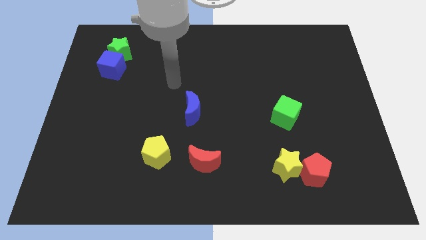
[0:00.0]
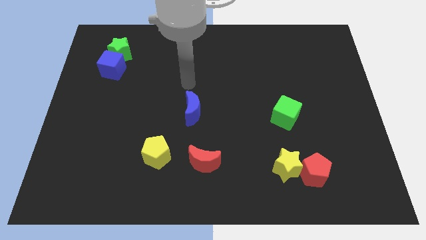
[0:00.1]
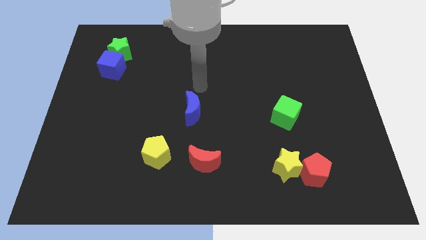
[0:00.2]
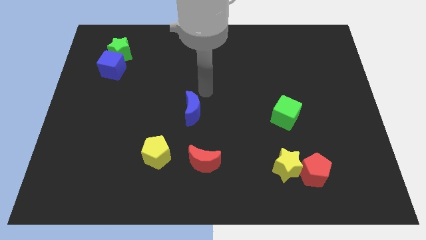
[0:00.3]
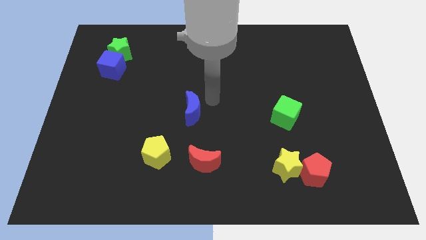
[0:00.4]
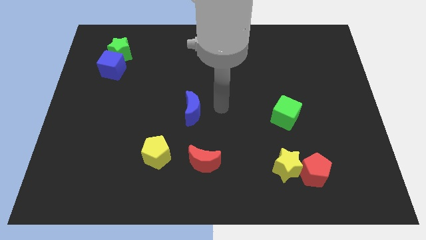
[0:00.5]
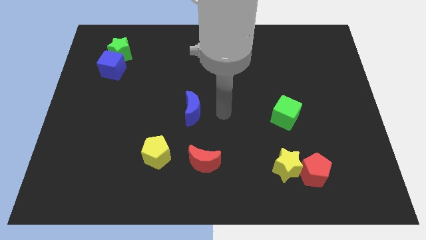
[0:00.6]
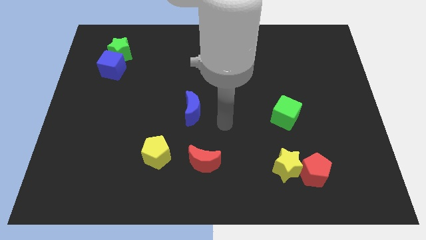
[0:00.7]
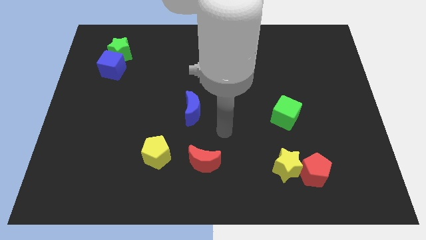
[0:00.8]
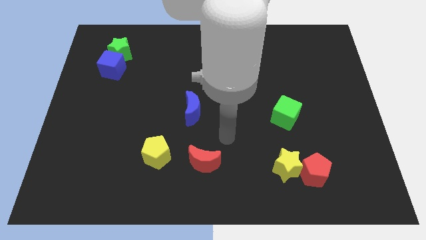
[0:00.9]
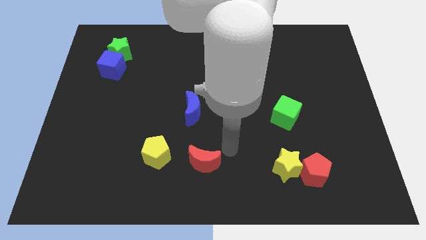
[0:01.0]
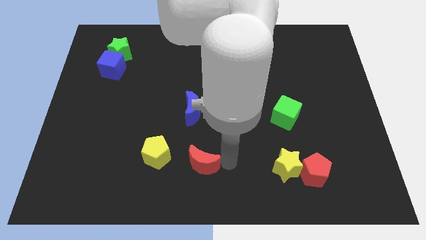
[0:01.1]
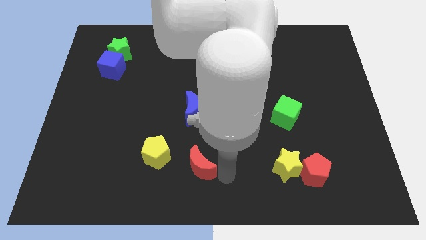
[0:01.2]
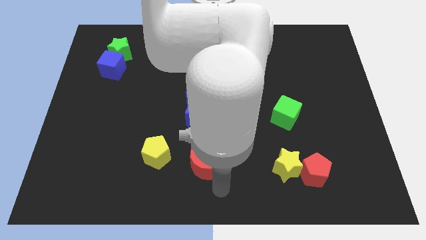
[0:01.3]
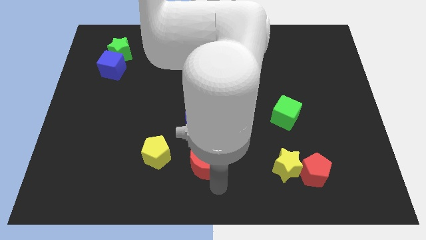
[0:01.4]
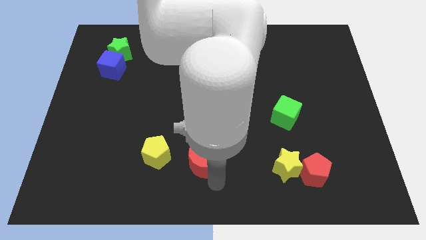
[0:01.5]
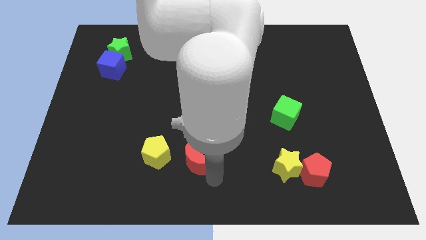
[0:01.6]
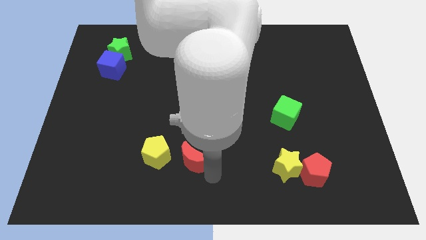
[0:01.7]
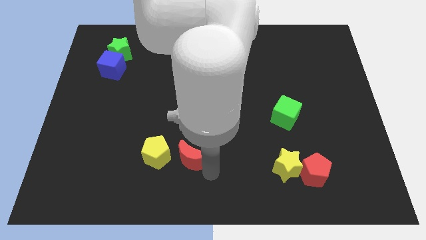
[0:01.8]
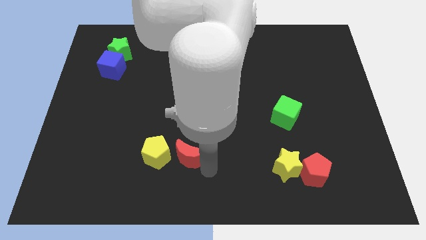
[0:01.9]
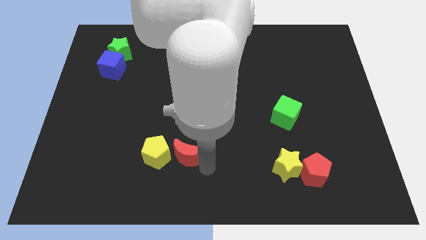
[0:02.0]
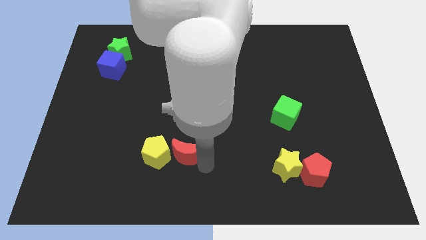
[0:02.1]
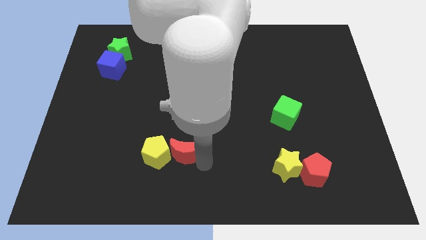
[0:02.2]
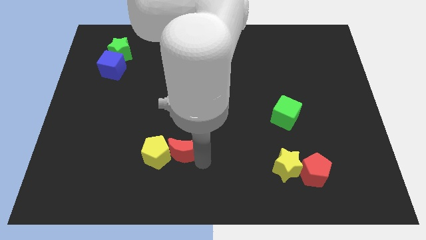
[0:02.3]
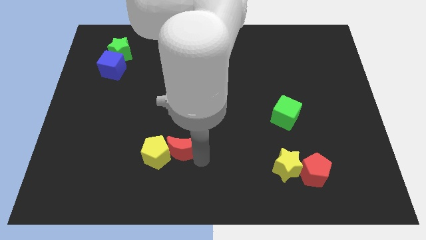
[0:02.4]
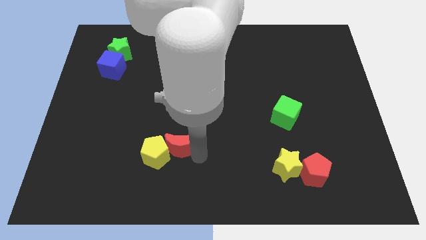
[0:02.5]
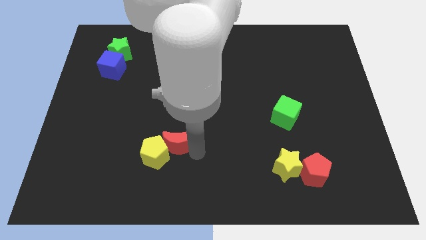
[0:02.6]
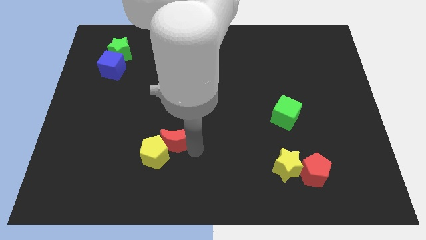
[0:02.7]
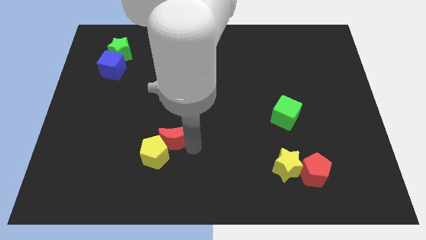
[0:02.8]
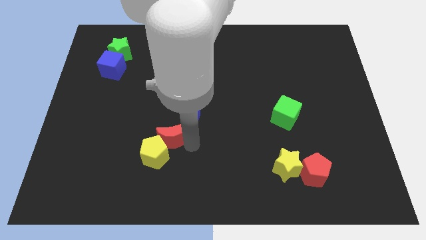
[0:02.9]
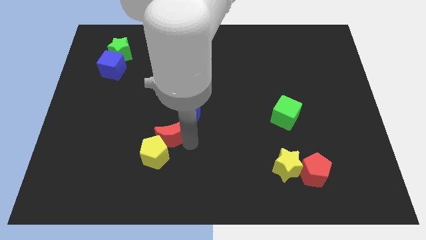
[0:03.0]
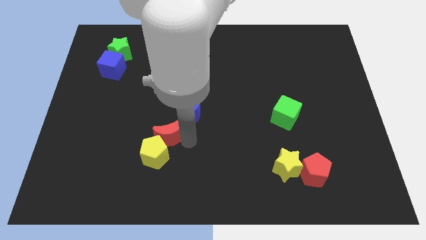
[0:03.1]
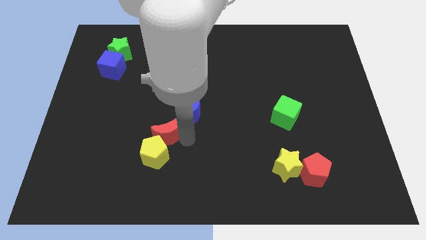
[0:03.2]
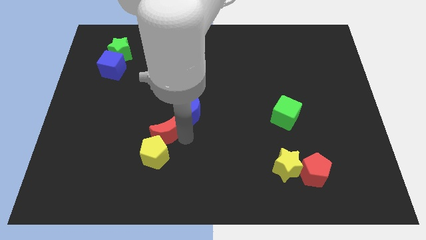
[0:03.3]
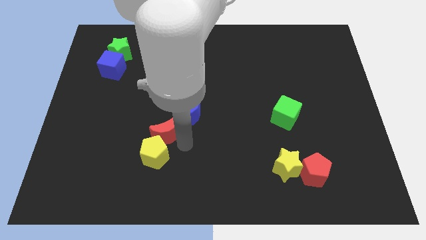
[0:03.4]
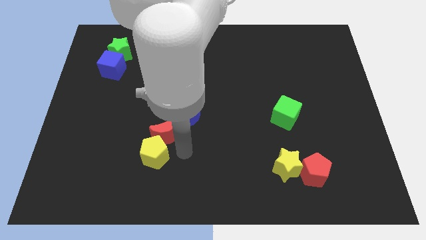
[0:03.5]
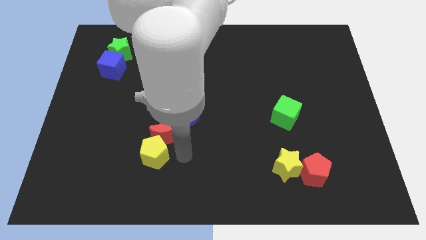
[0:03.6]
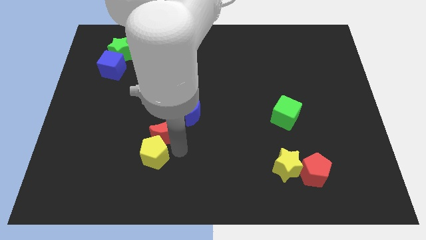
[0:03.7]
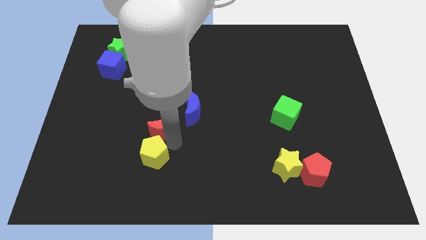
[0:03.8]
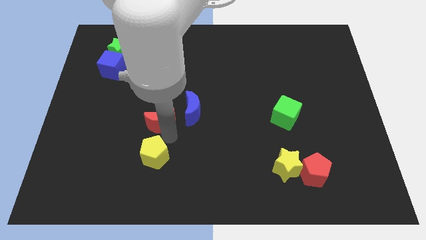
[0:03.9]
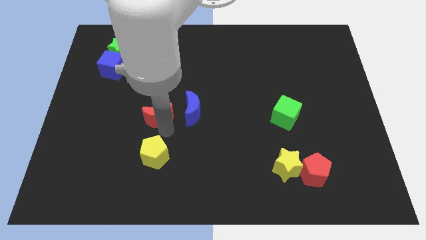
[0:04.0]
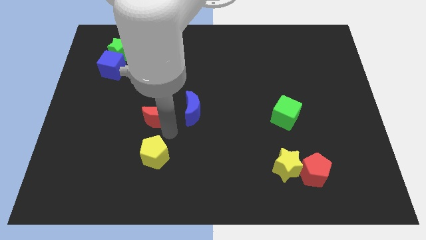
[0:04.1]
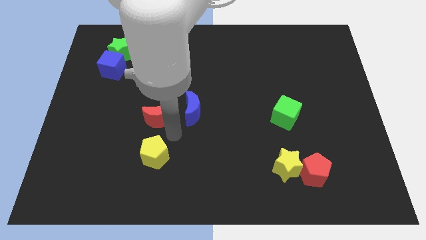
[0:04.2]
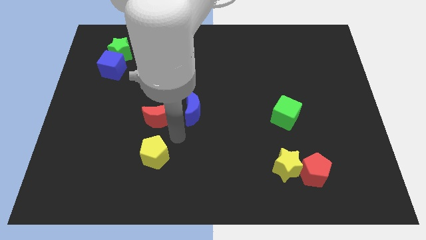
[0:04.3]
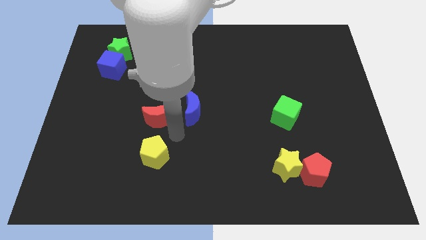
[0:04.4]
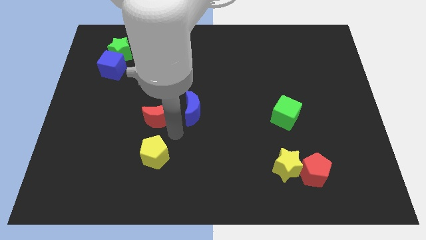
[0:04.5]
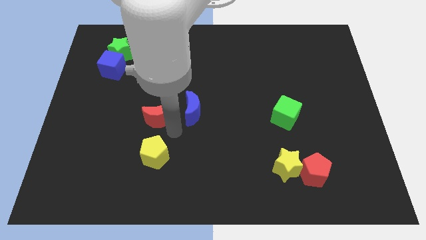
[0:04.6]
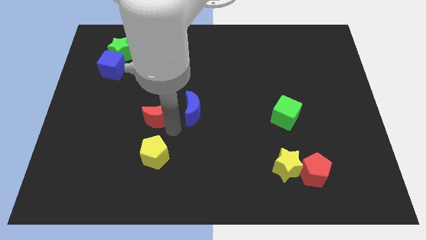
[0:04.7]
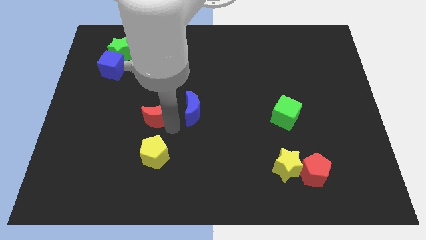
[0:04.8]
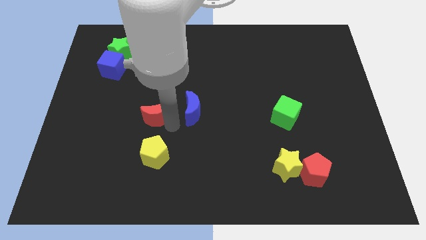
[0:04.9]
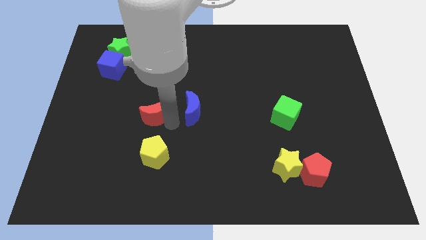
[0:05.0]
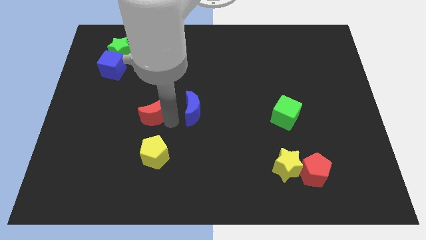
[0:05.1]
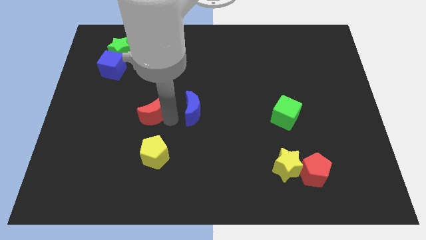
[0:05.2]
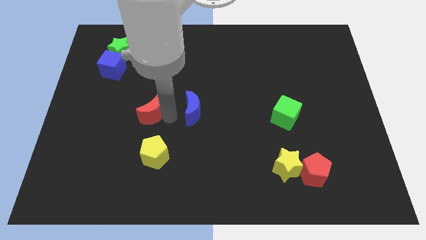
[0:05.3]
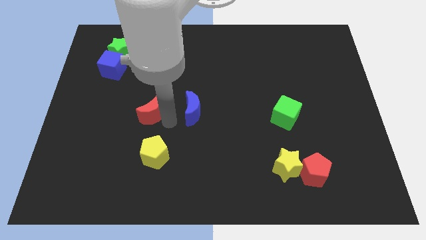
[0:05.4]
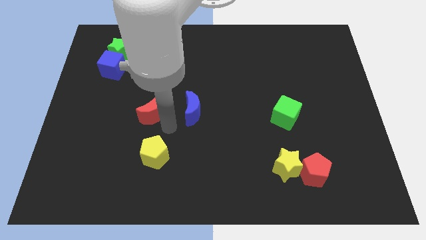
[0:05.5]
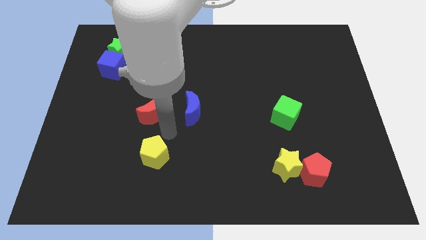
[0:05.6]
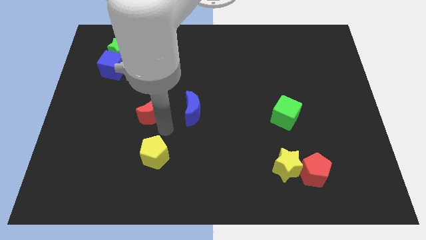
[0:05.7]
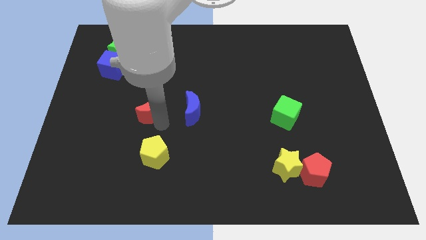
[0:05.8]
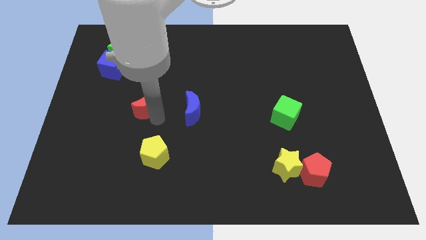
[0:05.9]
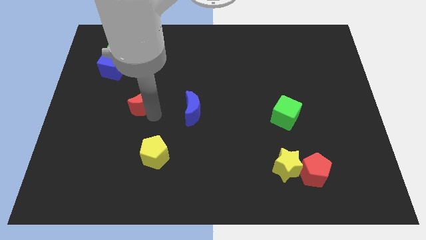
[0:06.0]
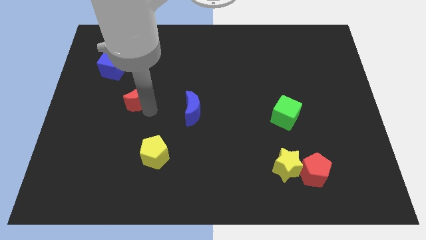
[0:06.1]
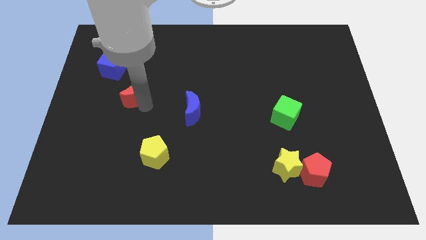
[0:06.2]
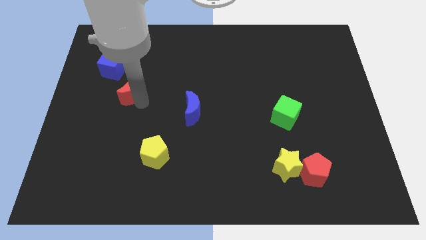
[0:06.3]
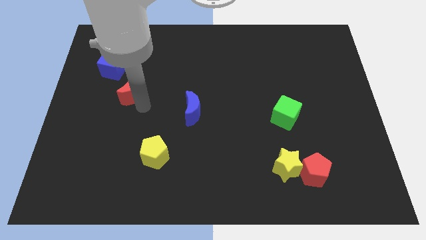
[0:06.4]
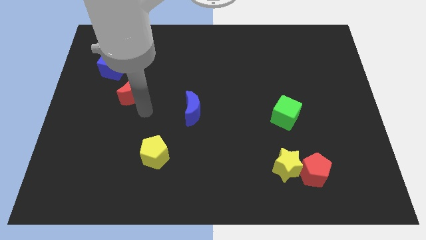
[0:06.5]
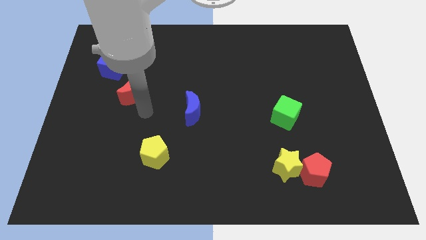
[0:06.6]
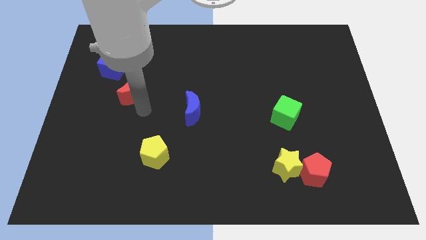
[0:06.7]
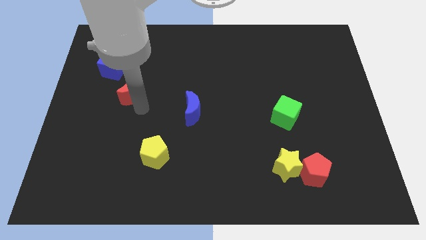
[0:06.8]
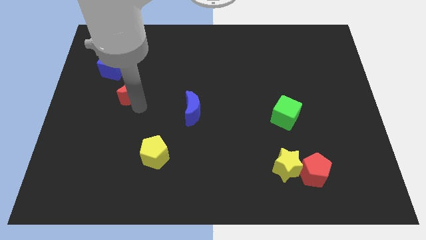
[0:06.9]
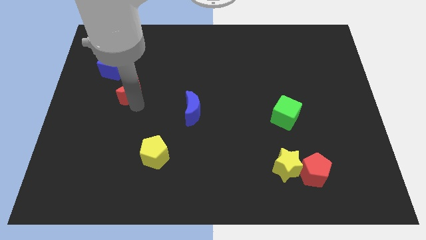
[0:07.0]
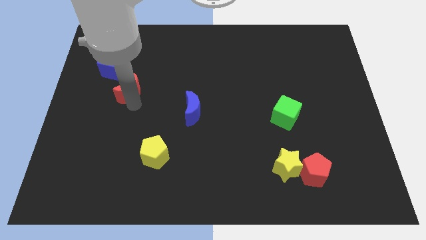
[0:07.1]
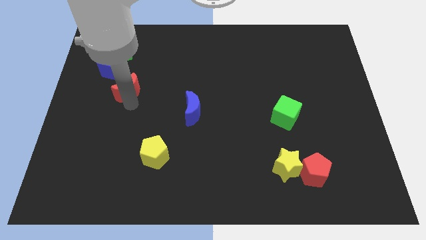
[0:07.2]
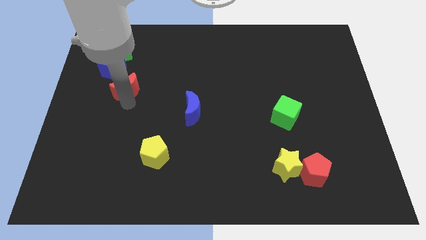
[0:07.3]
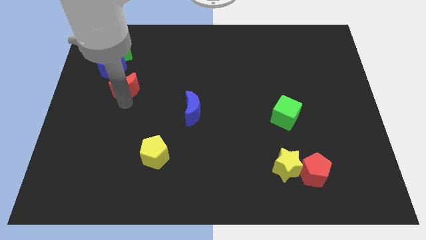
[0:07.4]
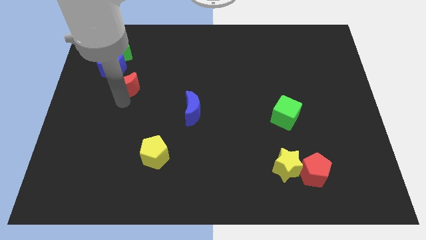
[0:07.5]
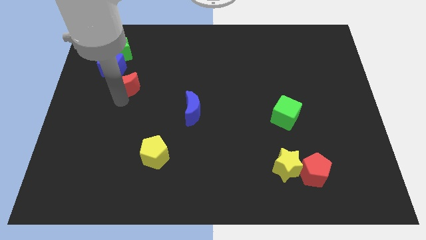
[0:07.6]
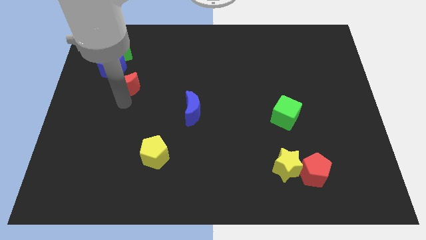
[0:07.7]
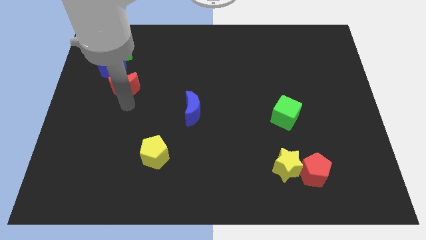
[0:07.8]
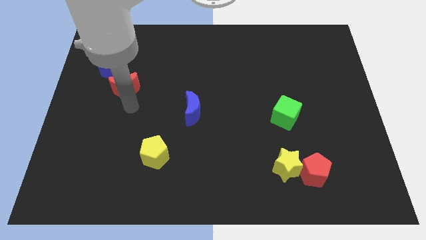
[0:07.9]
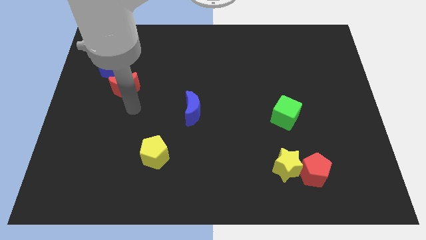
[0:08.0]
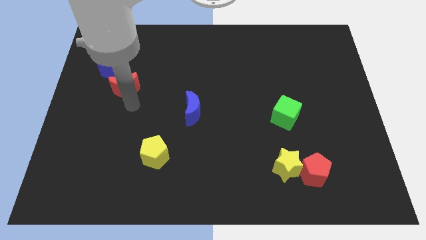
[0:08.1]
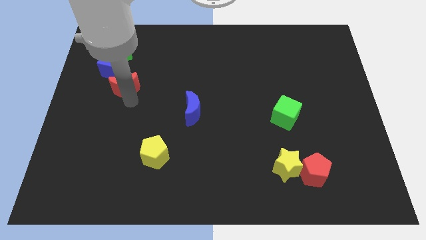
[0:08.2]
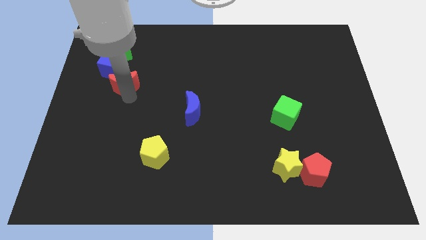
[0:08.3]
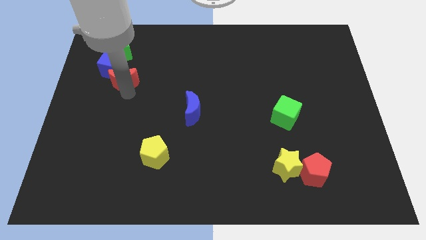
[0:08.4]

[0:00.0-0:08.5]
put the red moon close to the blue cube
